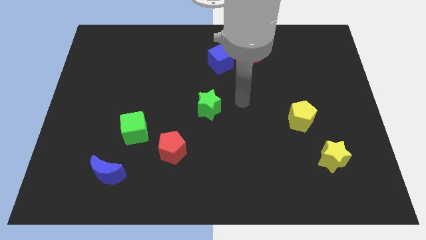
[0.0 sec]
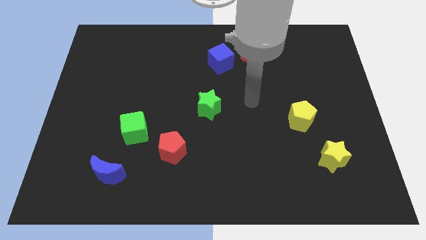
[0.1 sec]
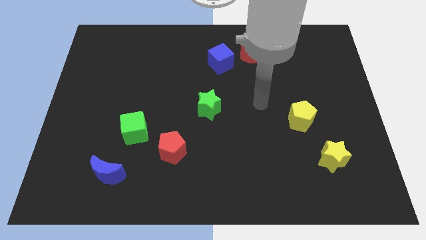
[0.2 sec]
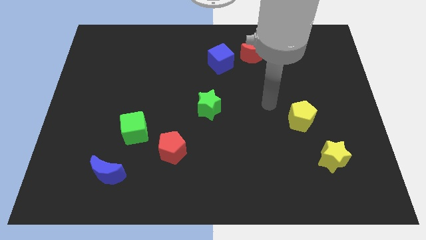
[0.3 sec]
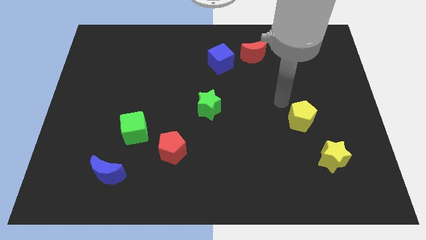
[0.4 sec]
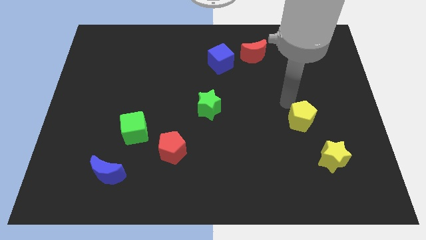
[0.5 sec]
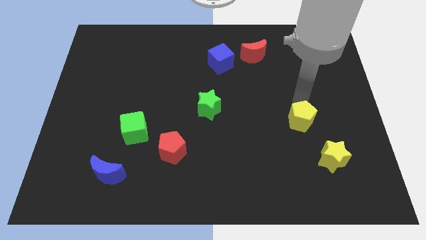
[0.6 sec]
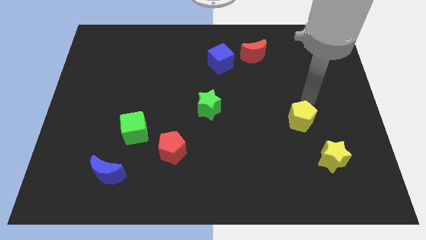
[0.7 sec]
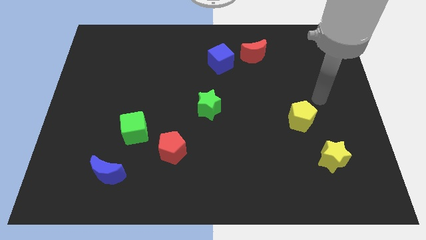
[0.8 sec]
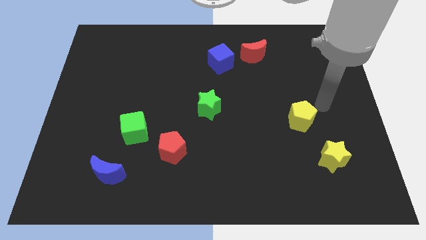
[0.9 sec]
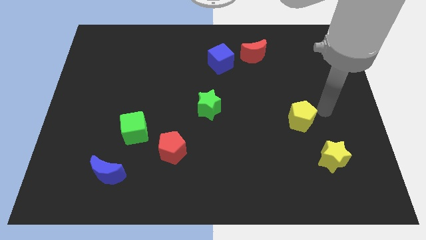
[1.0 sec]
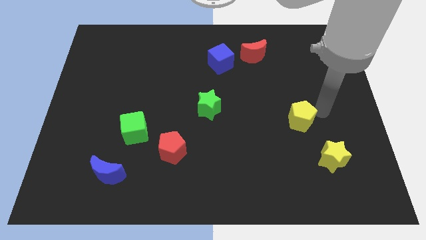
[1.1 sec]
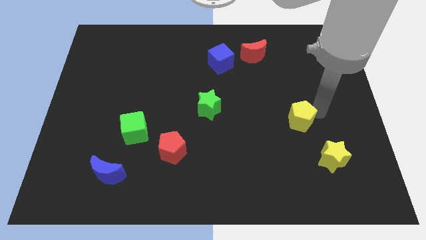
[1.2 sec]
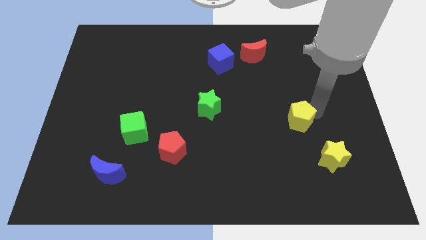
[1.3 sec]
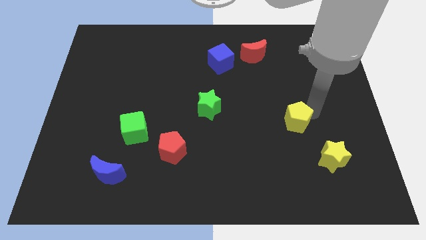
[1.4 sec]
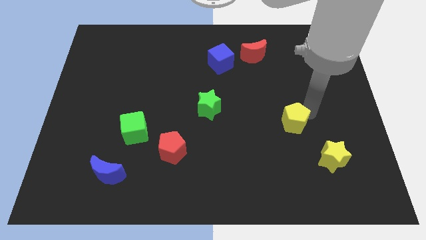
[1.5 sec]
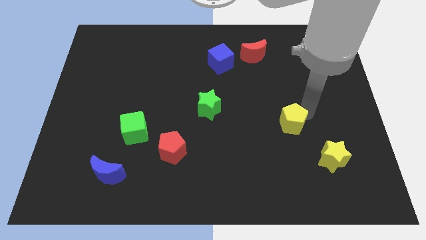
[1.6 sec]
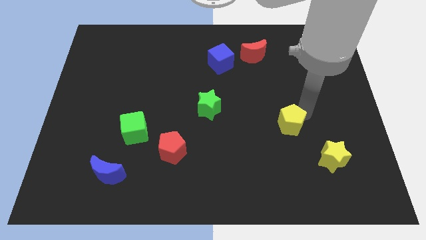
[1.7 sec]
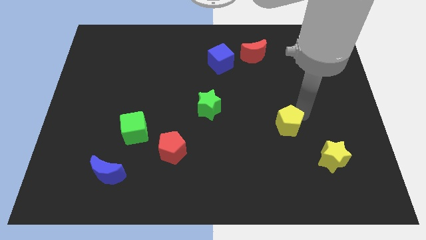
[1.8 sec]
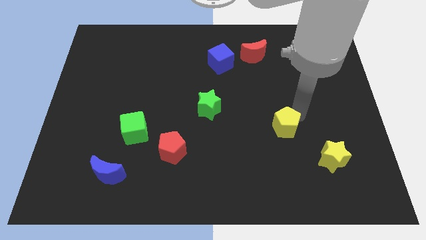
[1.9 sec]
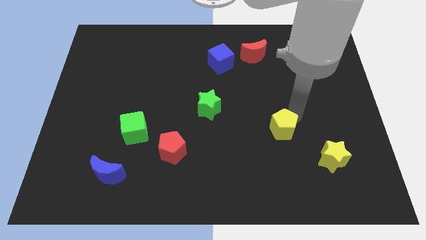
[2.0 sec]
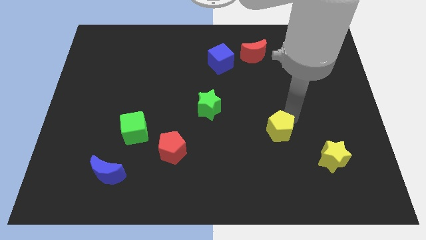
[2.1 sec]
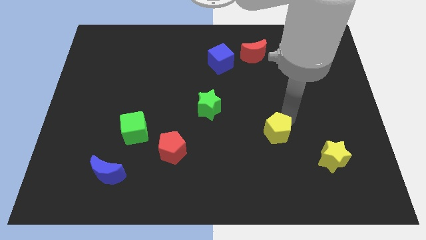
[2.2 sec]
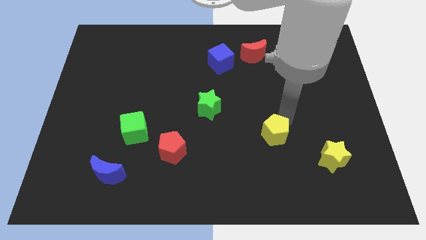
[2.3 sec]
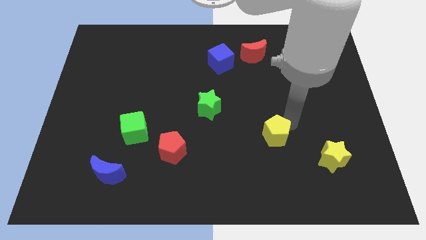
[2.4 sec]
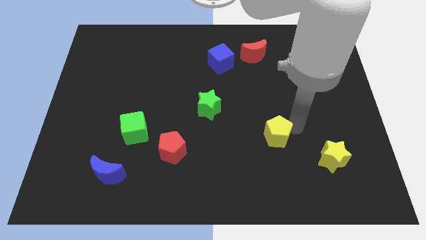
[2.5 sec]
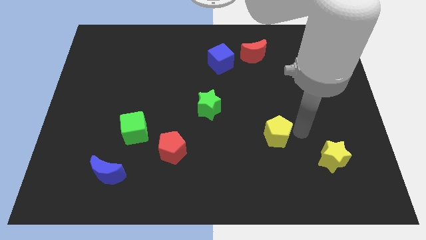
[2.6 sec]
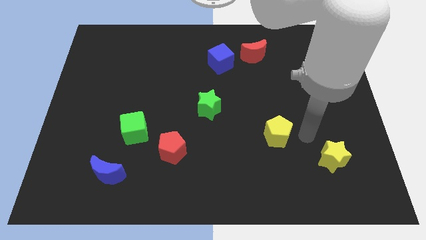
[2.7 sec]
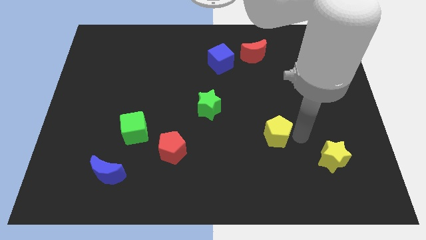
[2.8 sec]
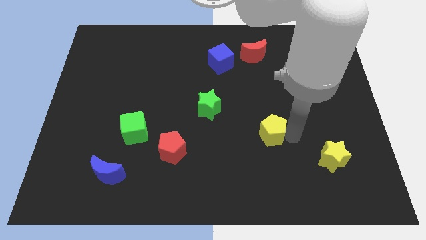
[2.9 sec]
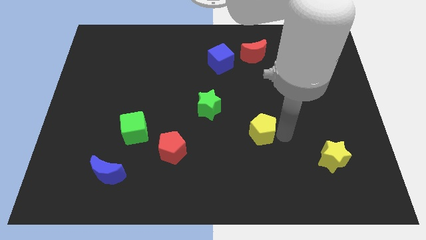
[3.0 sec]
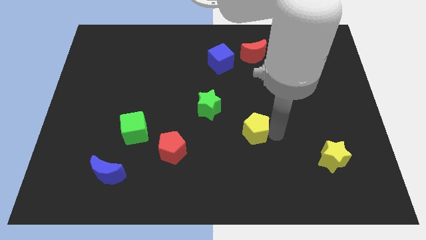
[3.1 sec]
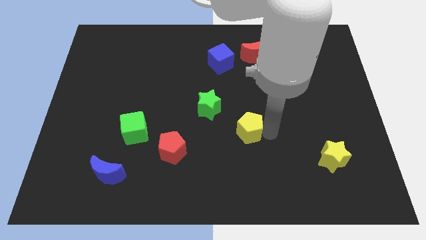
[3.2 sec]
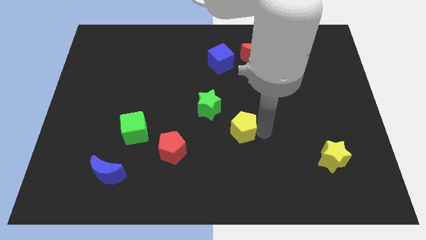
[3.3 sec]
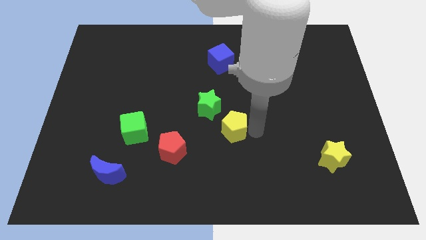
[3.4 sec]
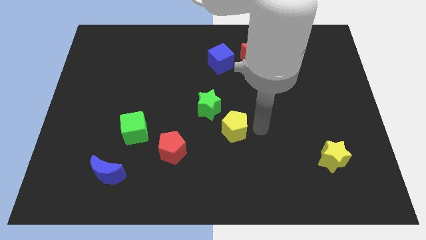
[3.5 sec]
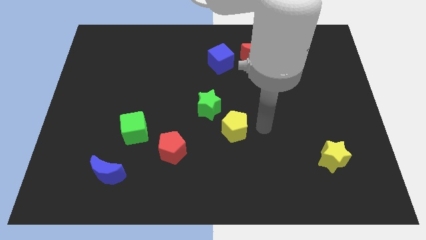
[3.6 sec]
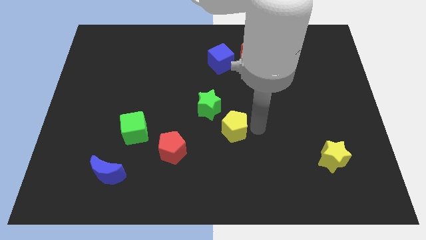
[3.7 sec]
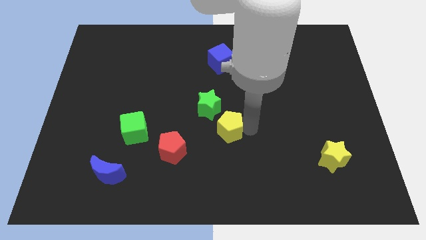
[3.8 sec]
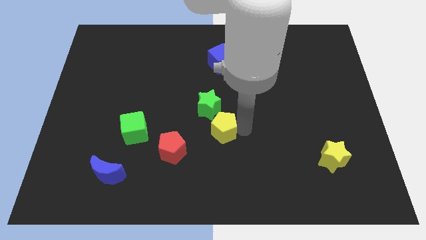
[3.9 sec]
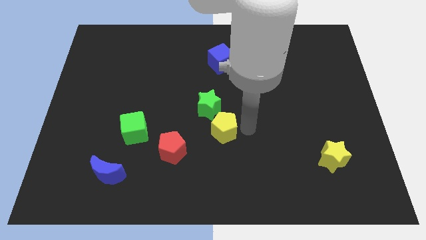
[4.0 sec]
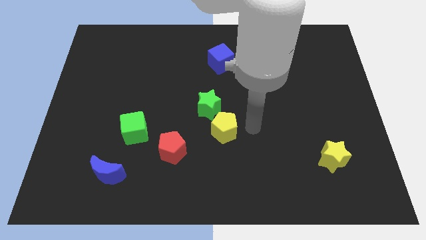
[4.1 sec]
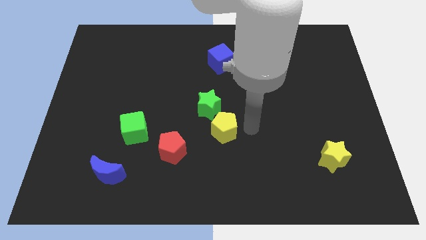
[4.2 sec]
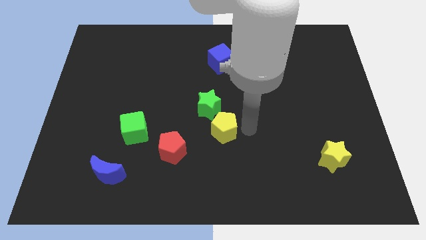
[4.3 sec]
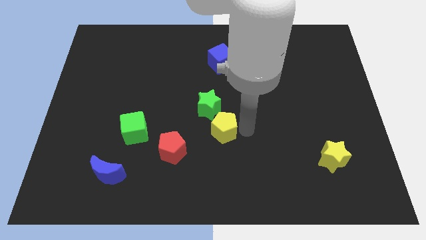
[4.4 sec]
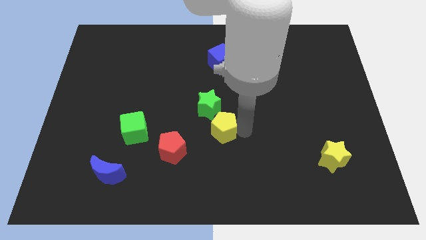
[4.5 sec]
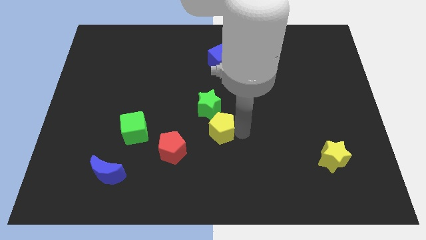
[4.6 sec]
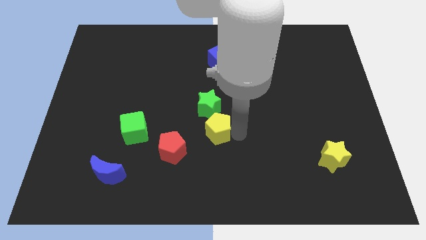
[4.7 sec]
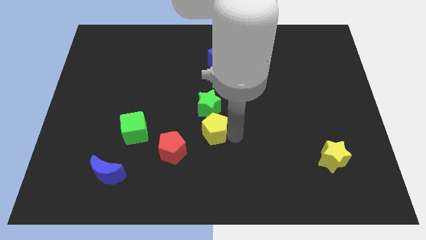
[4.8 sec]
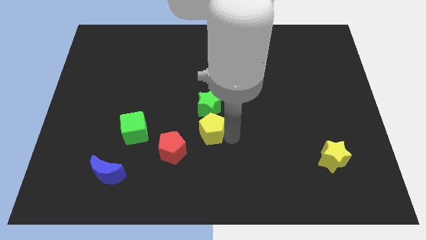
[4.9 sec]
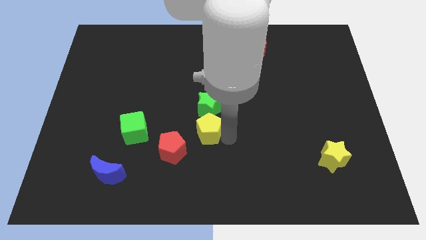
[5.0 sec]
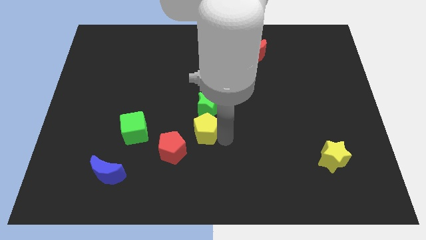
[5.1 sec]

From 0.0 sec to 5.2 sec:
move the yellow pentagon to the right side of the green cube

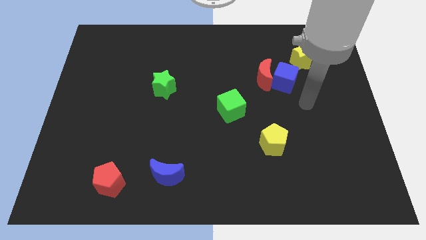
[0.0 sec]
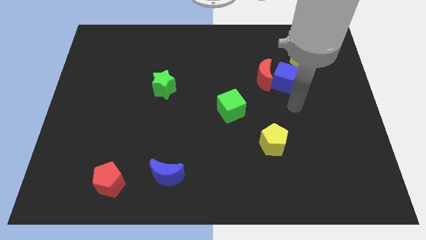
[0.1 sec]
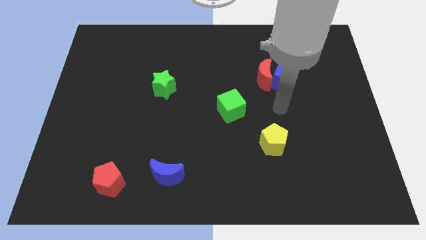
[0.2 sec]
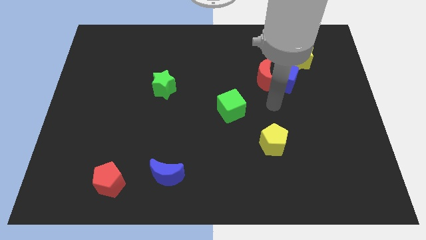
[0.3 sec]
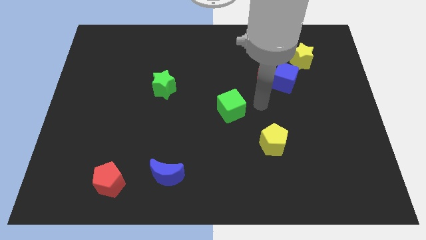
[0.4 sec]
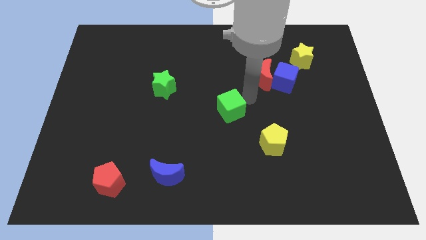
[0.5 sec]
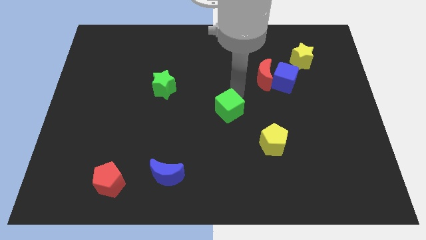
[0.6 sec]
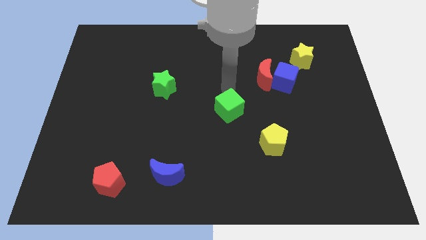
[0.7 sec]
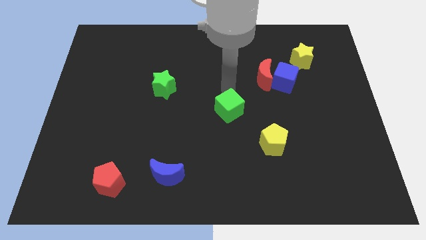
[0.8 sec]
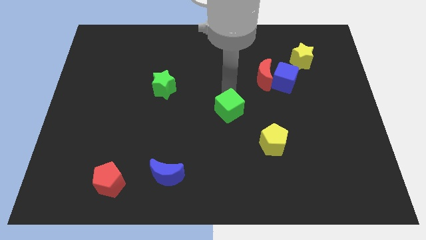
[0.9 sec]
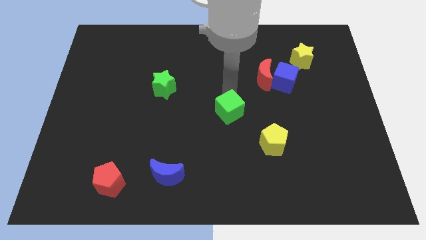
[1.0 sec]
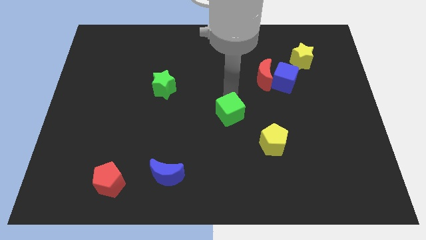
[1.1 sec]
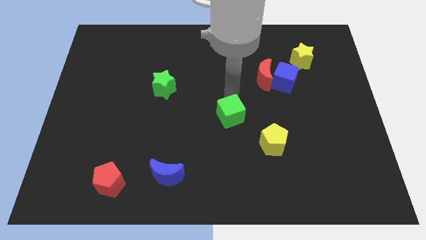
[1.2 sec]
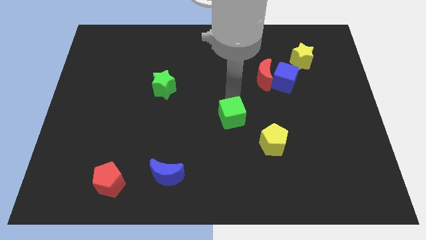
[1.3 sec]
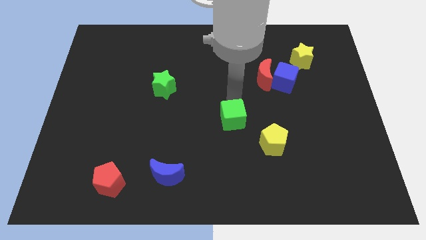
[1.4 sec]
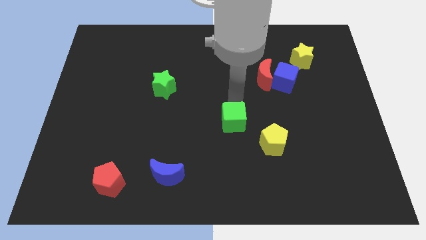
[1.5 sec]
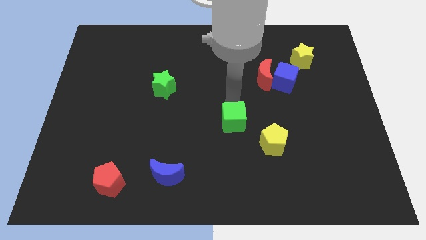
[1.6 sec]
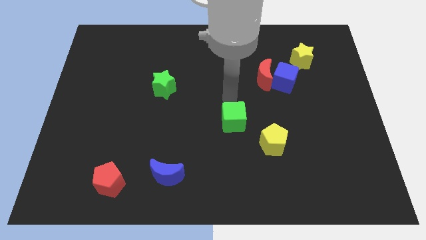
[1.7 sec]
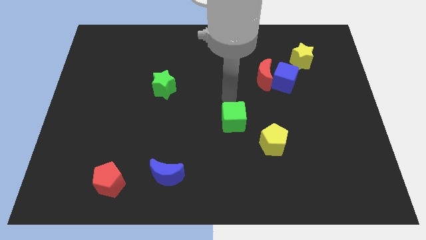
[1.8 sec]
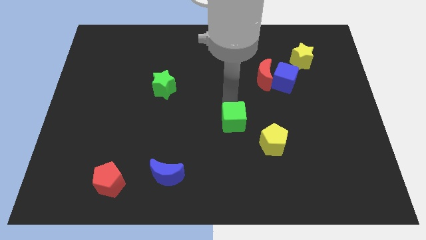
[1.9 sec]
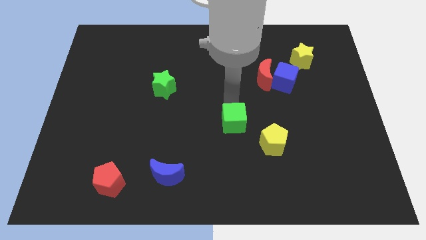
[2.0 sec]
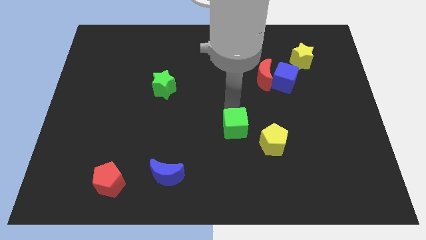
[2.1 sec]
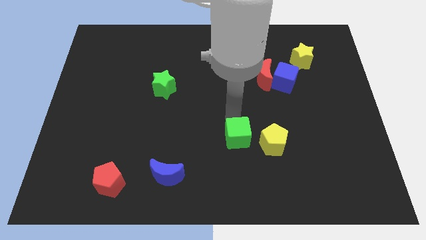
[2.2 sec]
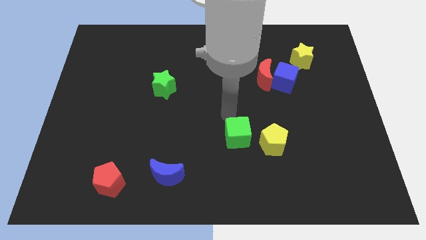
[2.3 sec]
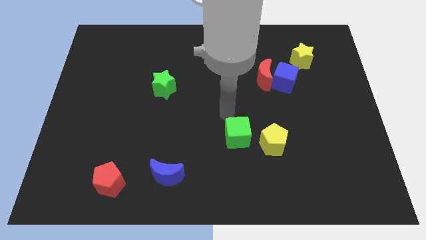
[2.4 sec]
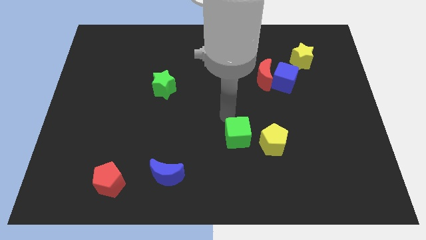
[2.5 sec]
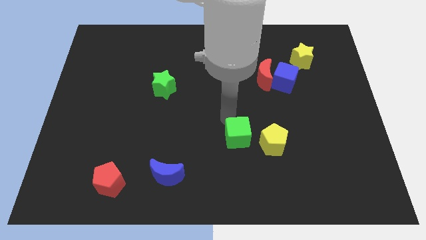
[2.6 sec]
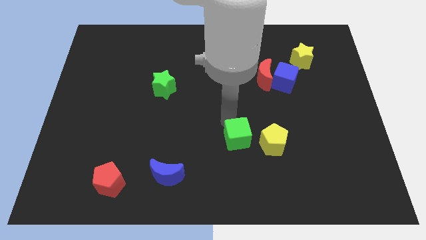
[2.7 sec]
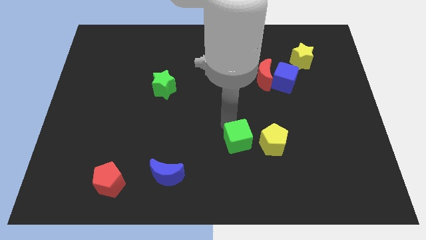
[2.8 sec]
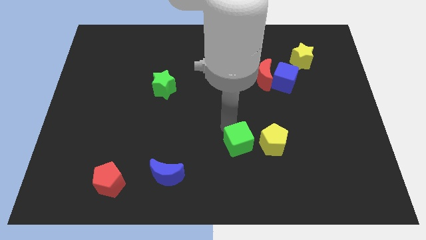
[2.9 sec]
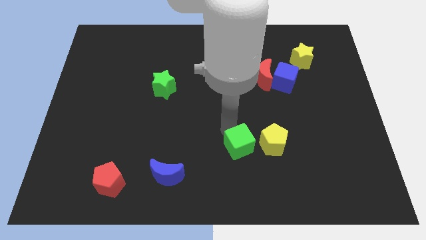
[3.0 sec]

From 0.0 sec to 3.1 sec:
push the green cube to the bottom left of the yellow pentagon
